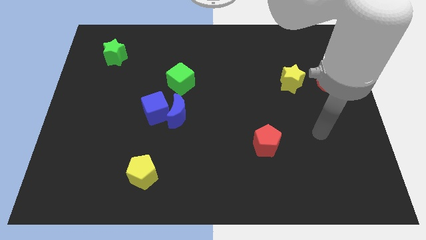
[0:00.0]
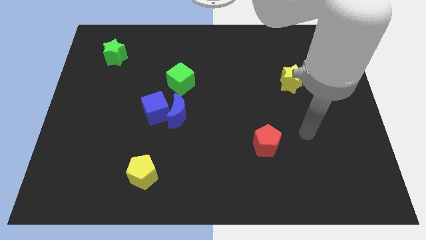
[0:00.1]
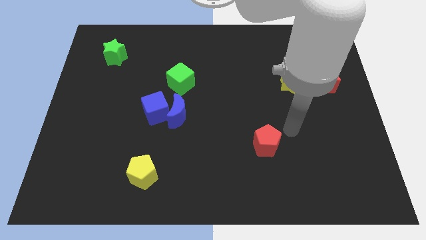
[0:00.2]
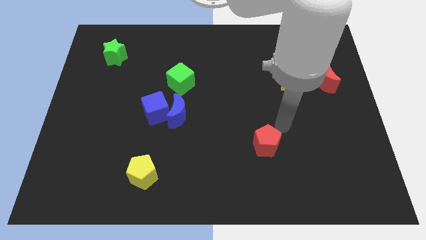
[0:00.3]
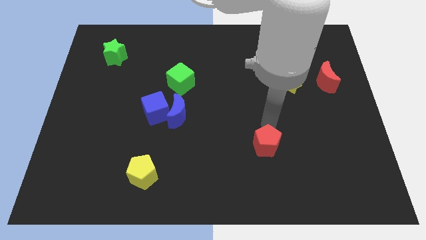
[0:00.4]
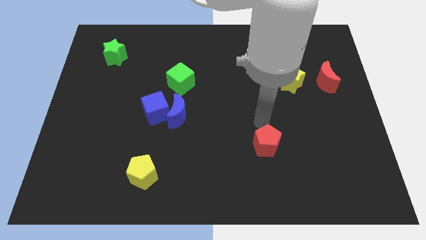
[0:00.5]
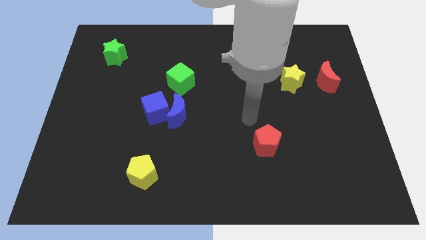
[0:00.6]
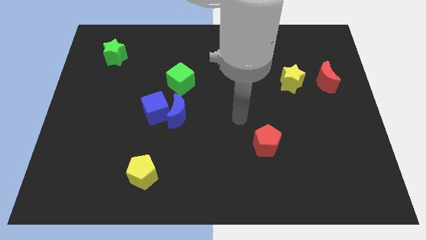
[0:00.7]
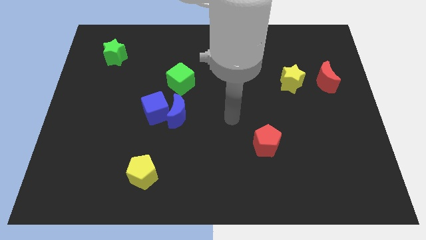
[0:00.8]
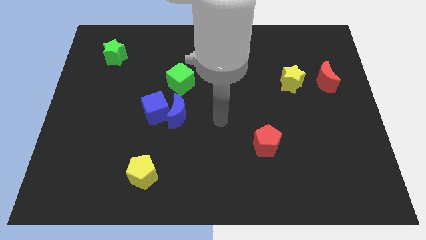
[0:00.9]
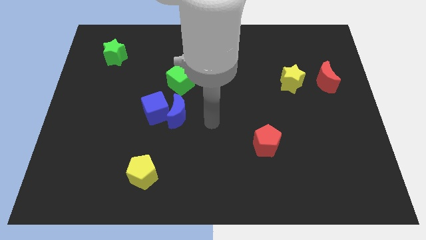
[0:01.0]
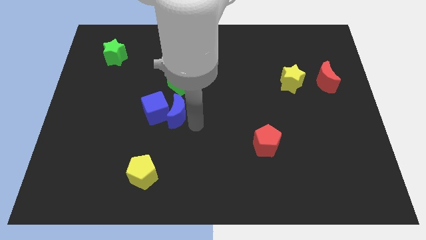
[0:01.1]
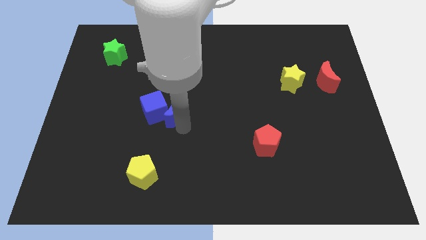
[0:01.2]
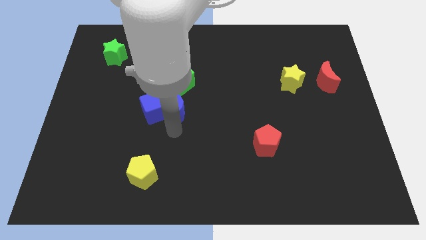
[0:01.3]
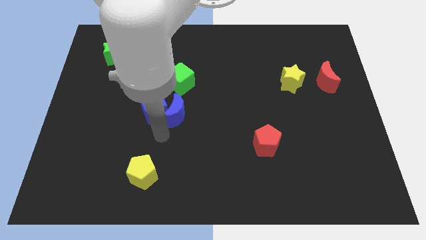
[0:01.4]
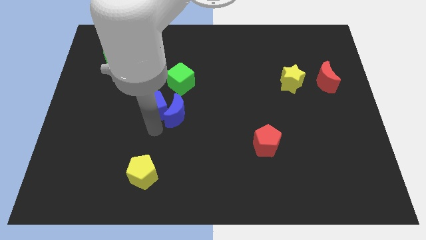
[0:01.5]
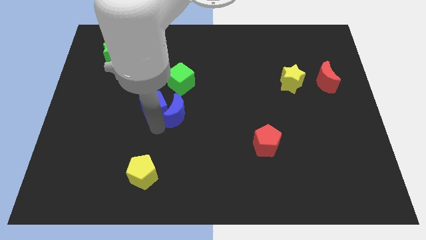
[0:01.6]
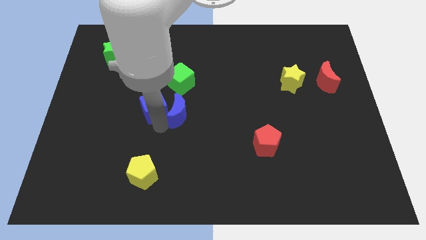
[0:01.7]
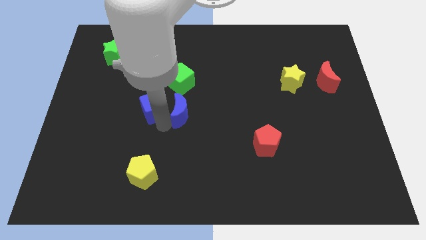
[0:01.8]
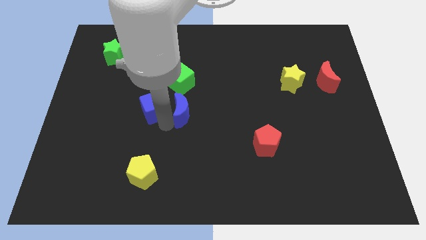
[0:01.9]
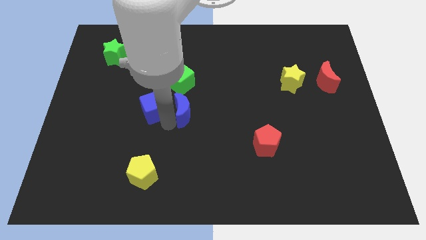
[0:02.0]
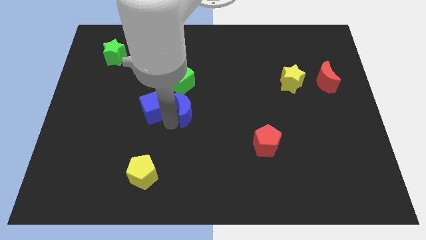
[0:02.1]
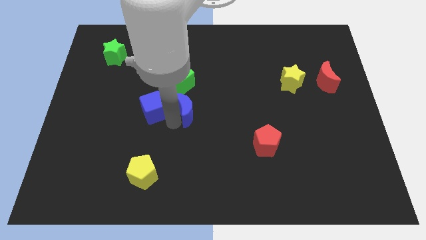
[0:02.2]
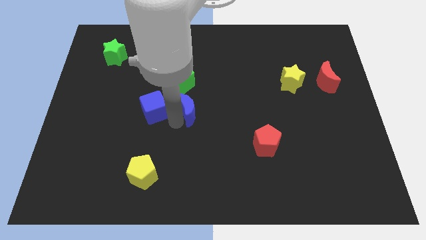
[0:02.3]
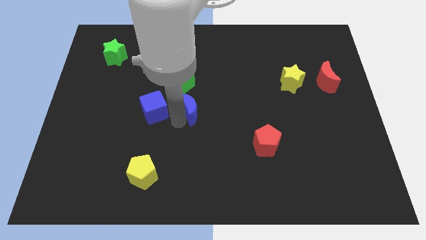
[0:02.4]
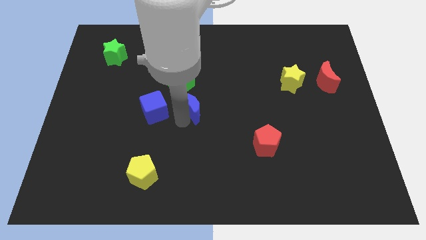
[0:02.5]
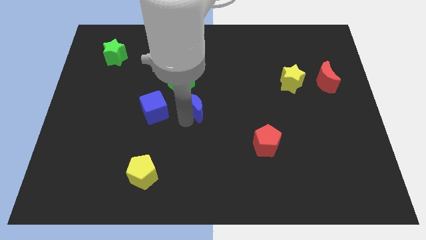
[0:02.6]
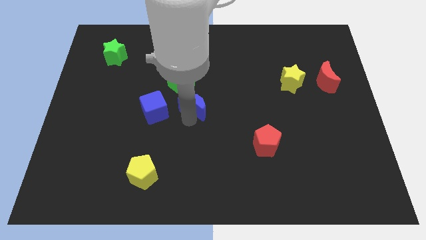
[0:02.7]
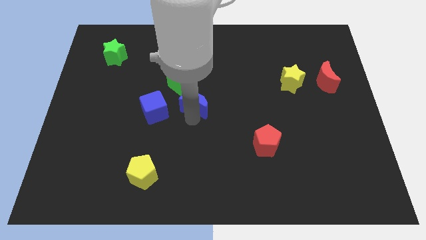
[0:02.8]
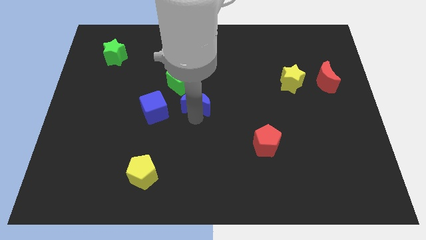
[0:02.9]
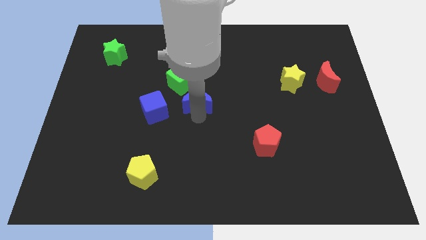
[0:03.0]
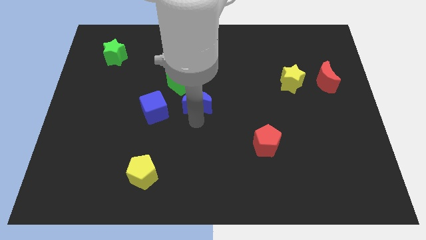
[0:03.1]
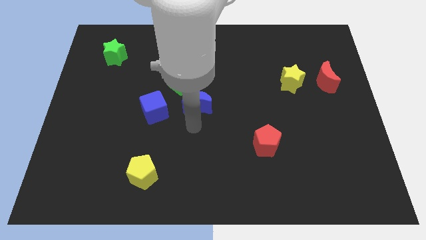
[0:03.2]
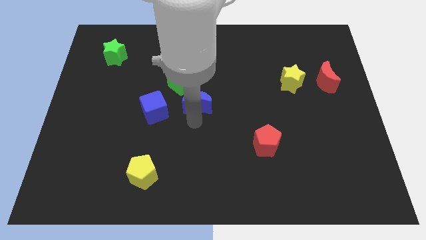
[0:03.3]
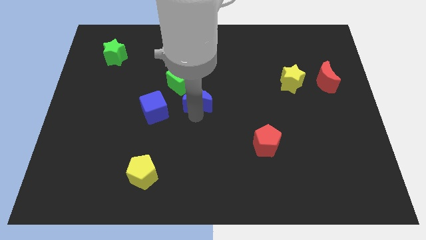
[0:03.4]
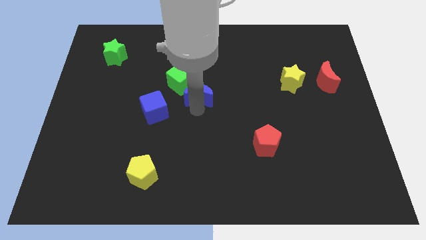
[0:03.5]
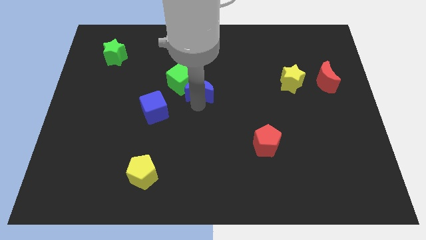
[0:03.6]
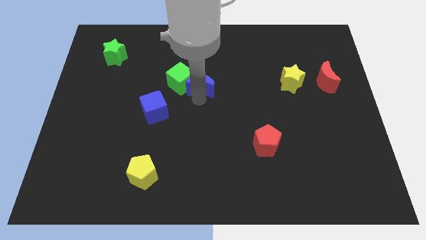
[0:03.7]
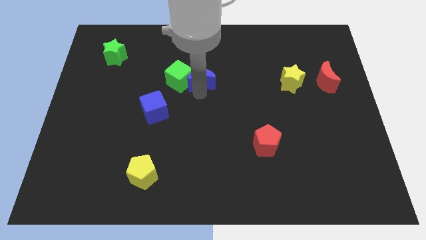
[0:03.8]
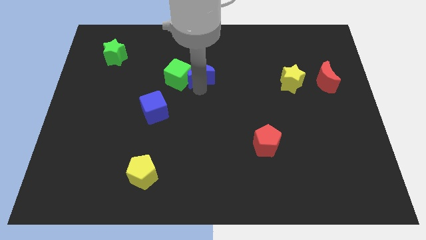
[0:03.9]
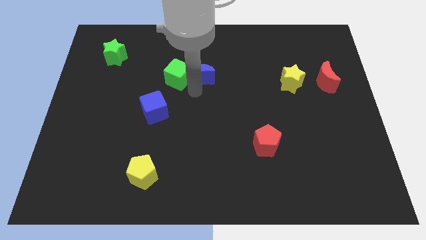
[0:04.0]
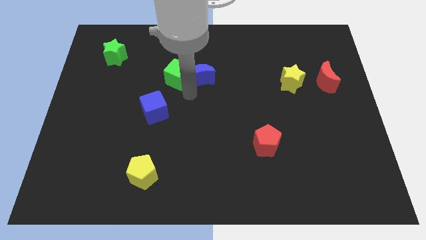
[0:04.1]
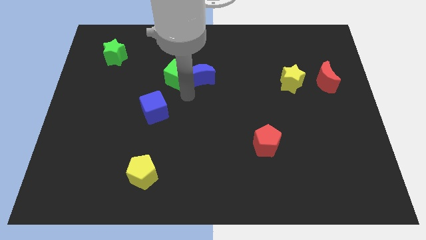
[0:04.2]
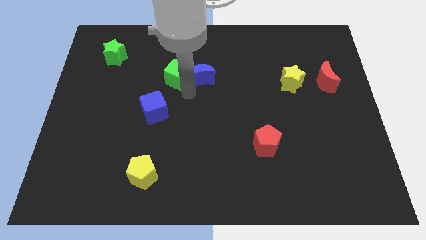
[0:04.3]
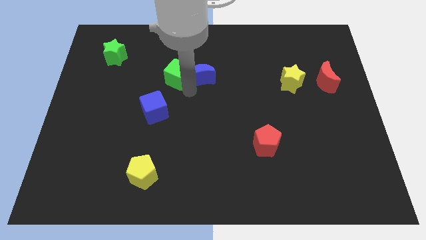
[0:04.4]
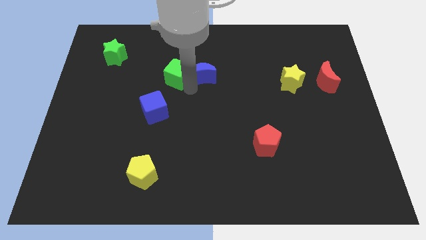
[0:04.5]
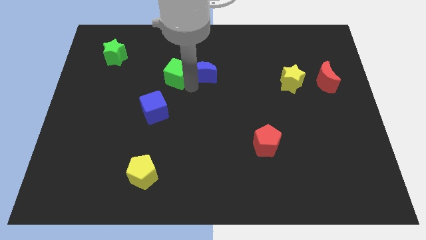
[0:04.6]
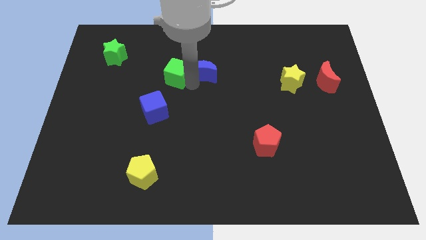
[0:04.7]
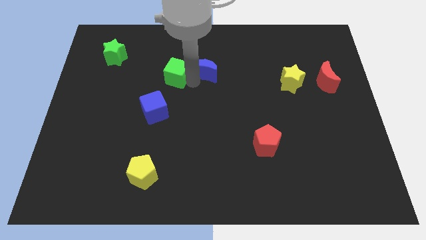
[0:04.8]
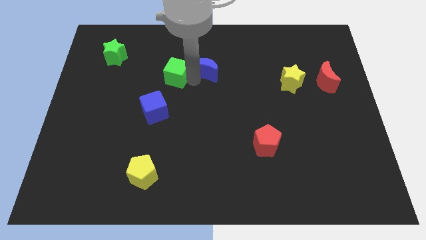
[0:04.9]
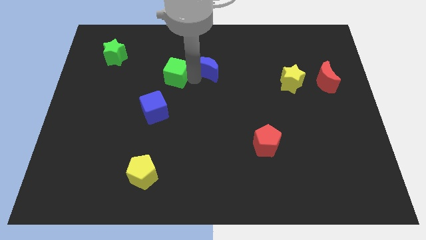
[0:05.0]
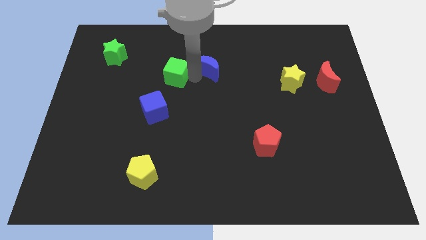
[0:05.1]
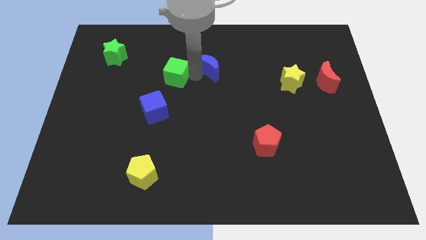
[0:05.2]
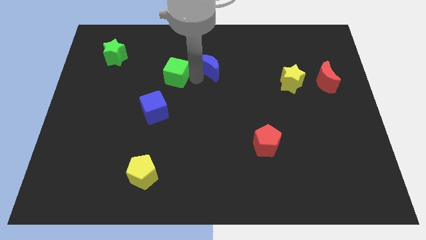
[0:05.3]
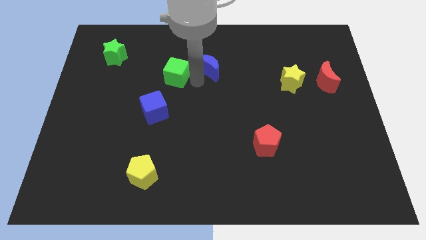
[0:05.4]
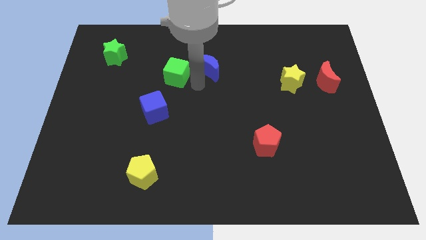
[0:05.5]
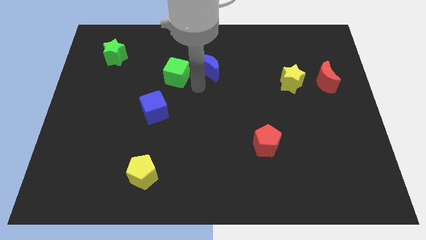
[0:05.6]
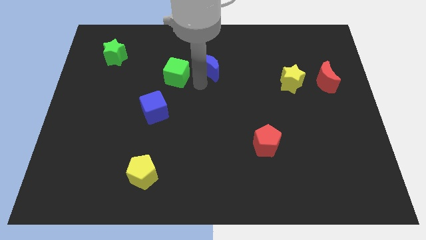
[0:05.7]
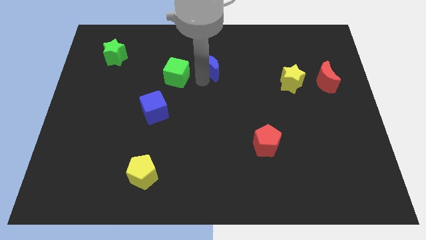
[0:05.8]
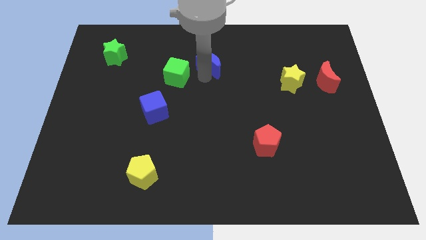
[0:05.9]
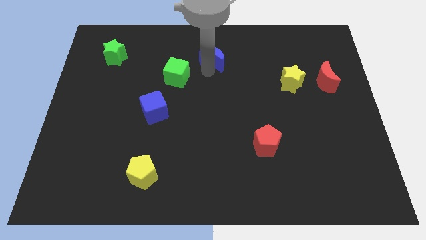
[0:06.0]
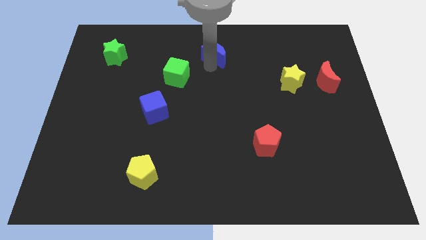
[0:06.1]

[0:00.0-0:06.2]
move the blue moon to the towards your base

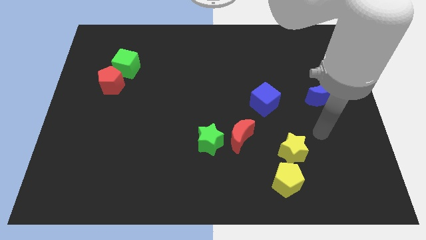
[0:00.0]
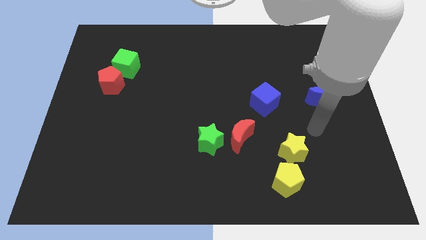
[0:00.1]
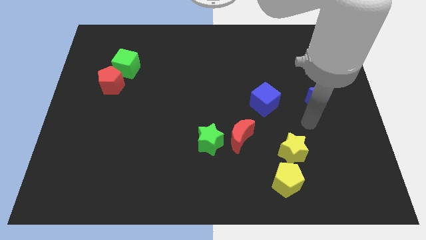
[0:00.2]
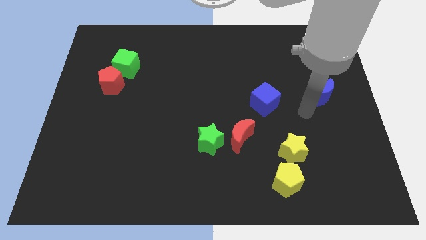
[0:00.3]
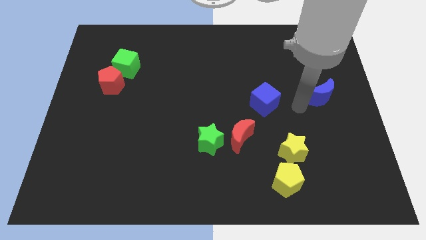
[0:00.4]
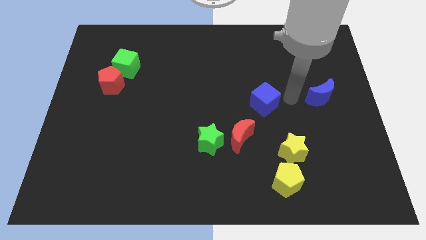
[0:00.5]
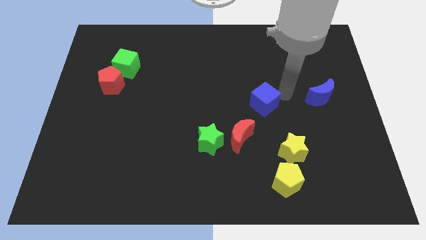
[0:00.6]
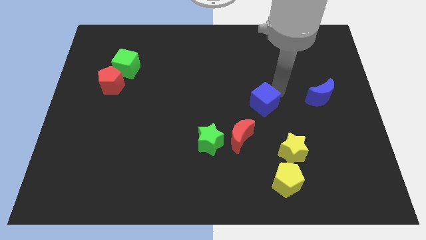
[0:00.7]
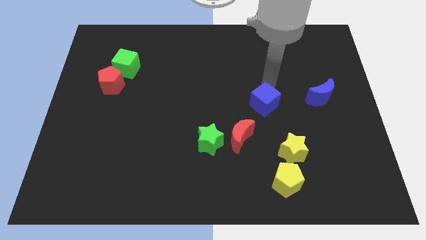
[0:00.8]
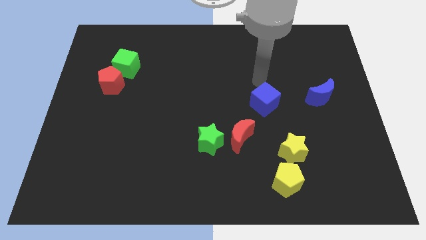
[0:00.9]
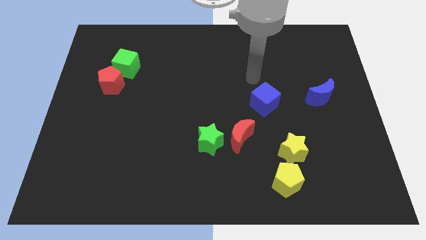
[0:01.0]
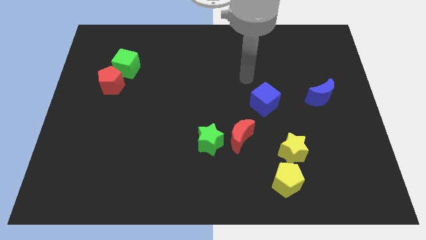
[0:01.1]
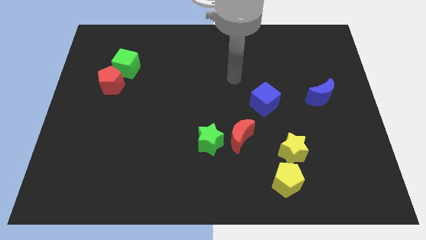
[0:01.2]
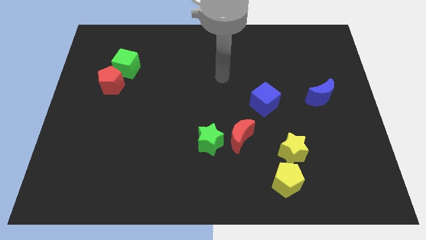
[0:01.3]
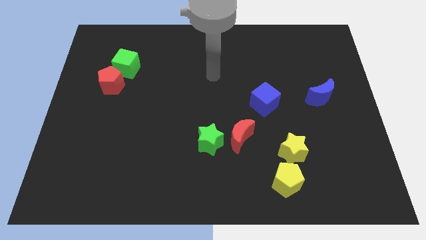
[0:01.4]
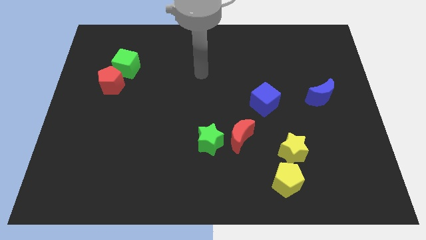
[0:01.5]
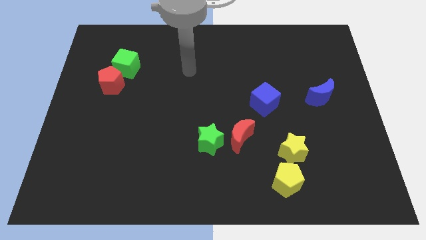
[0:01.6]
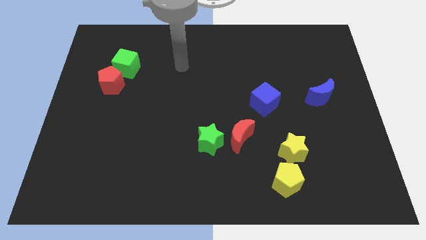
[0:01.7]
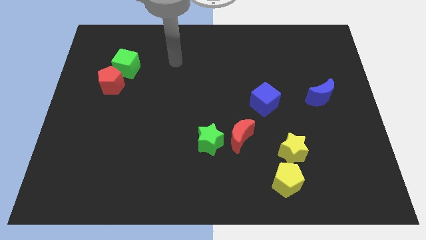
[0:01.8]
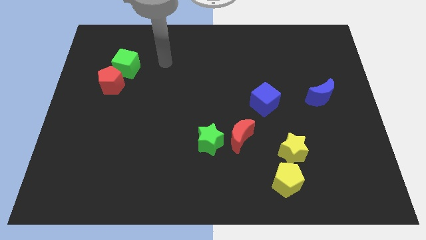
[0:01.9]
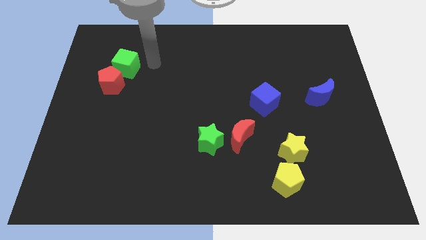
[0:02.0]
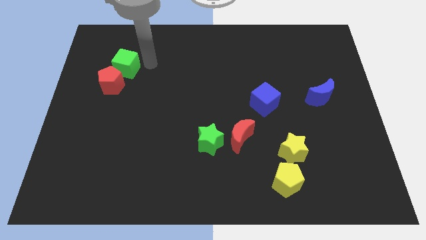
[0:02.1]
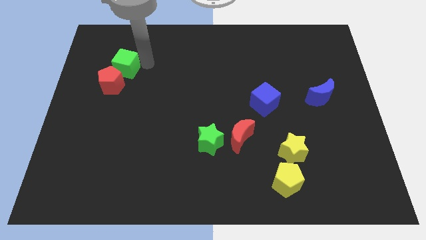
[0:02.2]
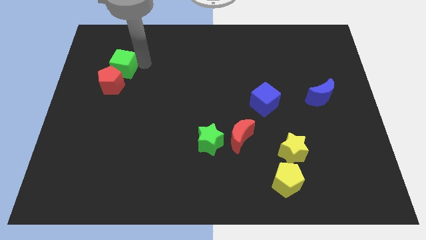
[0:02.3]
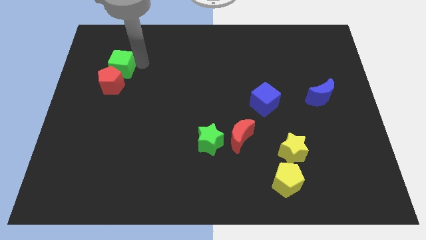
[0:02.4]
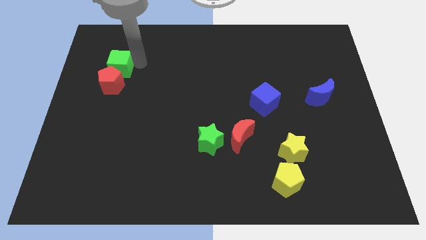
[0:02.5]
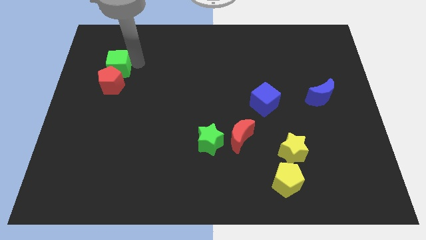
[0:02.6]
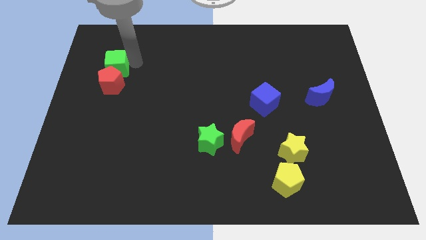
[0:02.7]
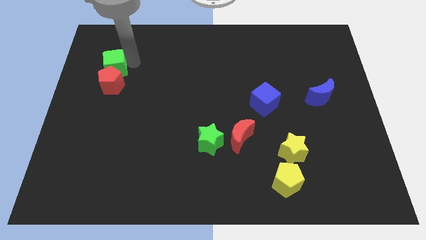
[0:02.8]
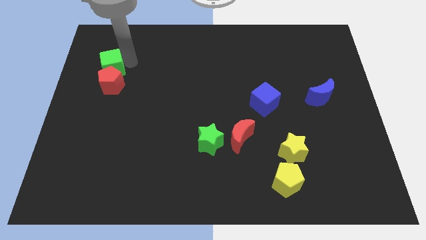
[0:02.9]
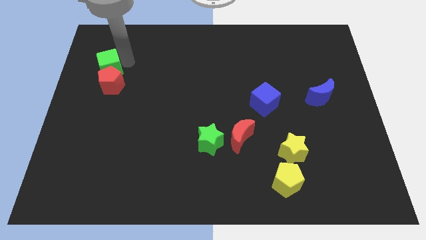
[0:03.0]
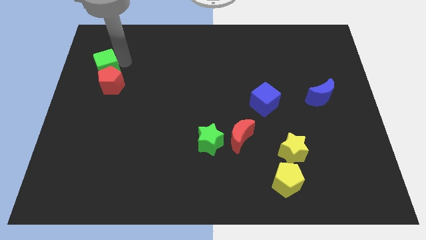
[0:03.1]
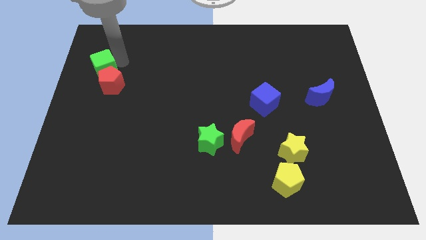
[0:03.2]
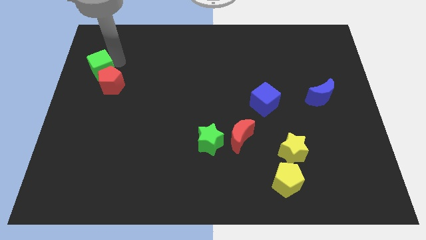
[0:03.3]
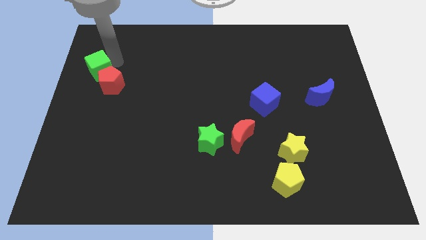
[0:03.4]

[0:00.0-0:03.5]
push the green cube to the center left
